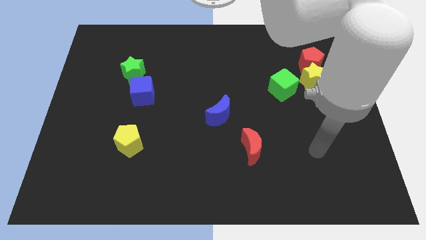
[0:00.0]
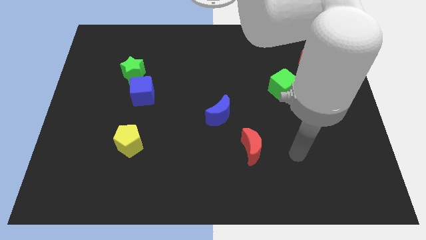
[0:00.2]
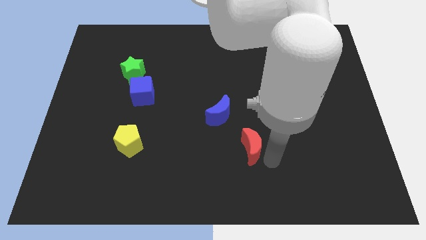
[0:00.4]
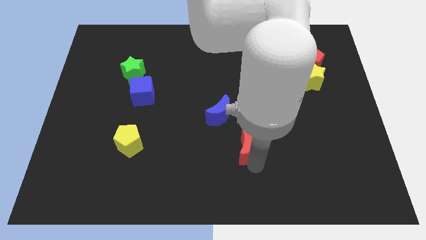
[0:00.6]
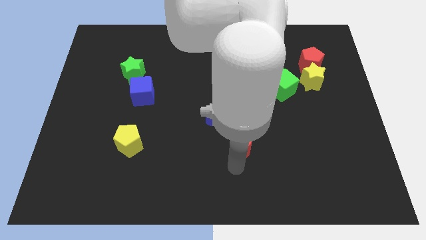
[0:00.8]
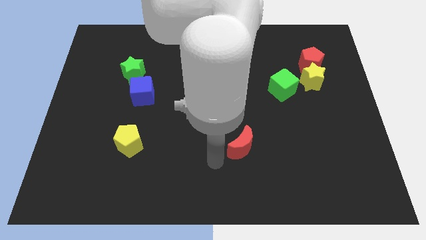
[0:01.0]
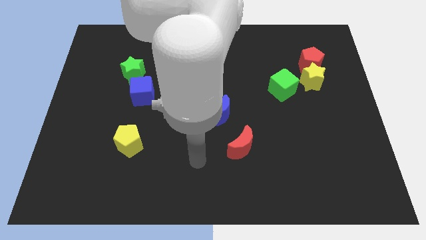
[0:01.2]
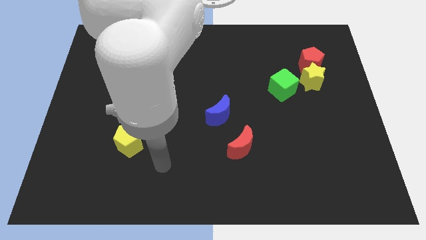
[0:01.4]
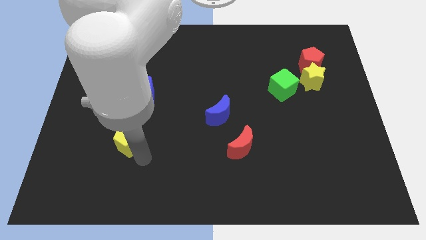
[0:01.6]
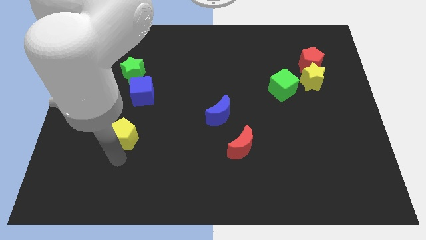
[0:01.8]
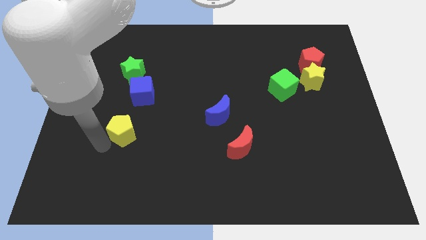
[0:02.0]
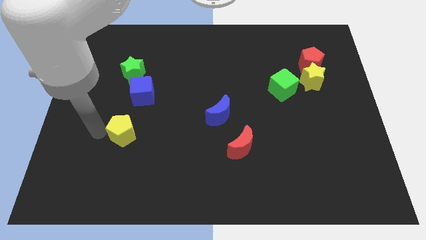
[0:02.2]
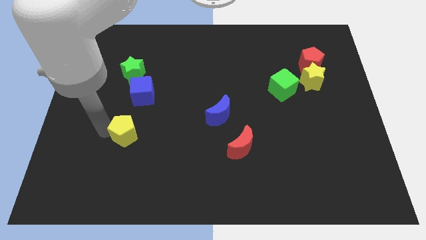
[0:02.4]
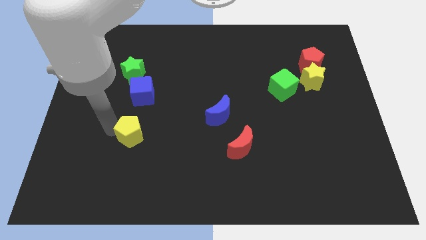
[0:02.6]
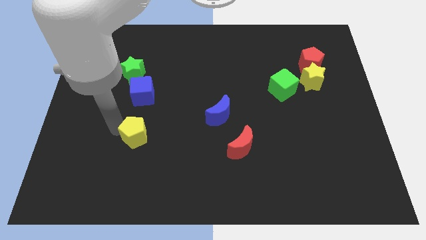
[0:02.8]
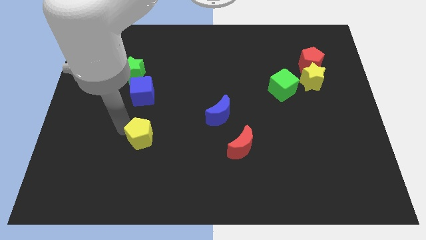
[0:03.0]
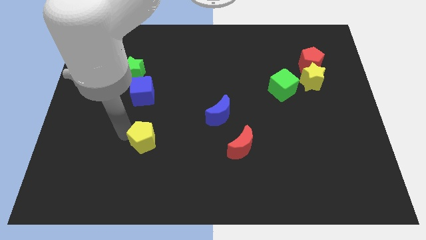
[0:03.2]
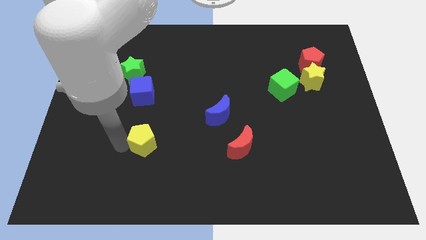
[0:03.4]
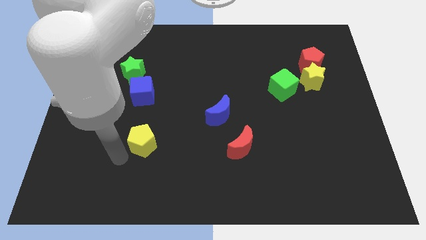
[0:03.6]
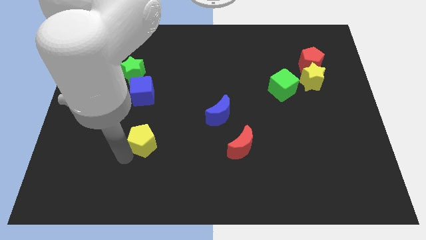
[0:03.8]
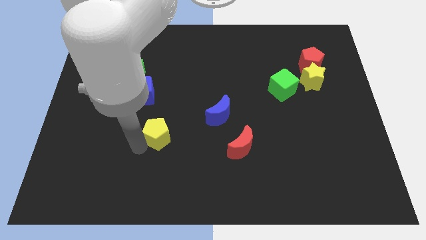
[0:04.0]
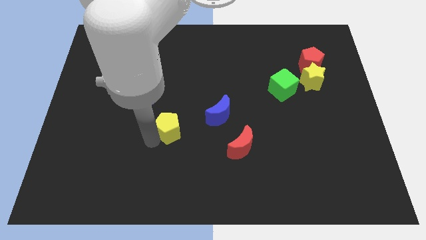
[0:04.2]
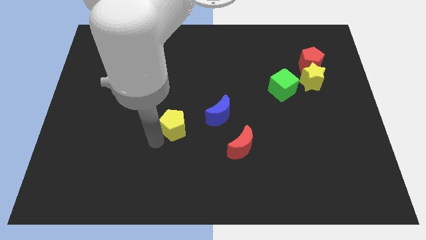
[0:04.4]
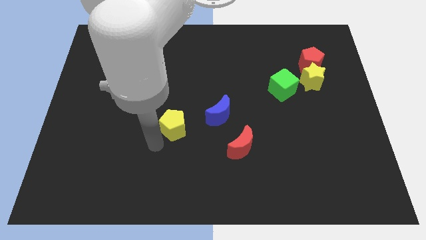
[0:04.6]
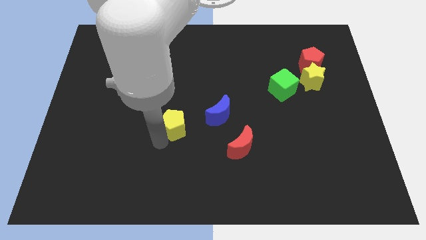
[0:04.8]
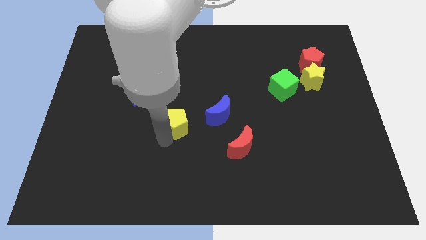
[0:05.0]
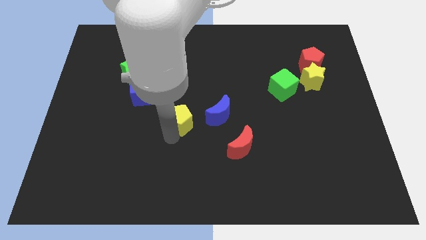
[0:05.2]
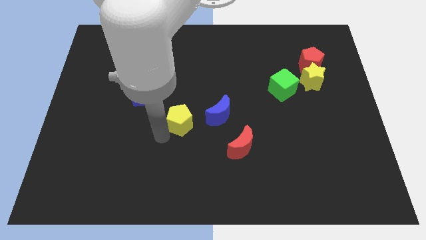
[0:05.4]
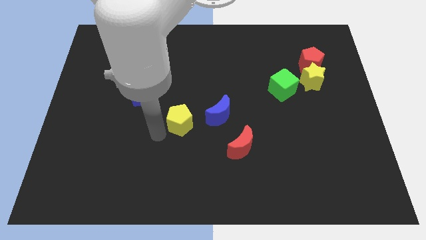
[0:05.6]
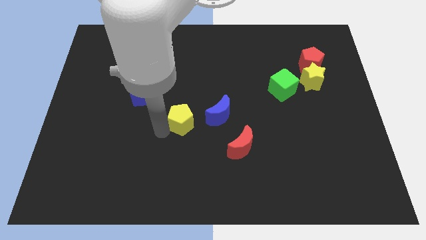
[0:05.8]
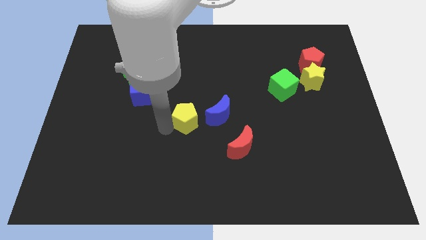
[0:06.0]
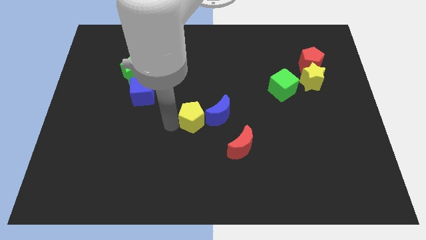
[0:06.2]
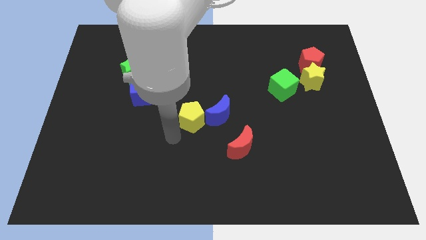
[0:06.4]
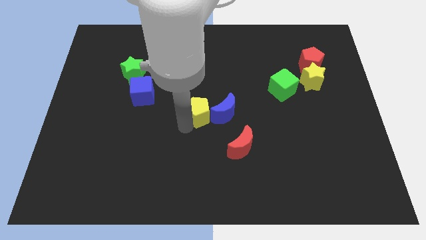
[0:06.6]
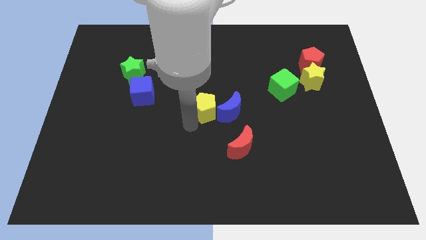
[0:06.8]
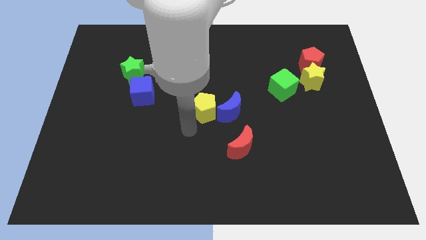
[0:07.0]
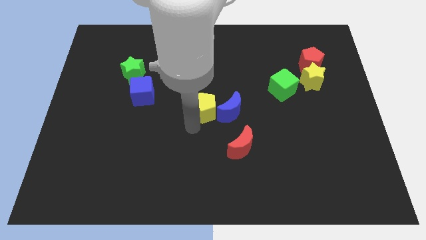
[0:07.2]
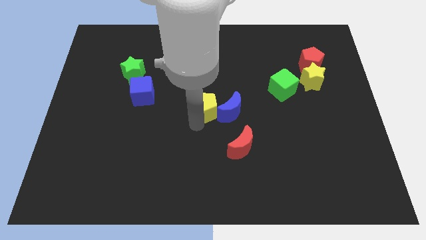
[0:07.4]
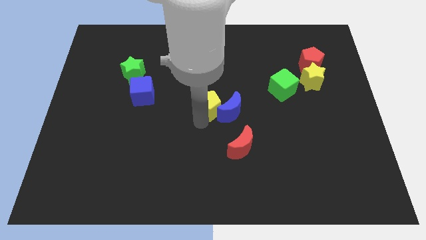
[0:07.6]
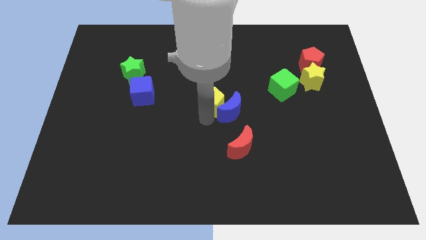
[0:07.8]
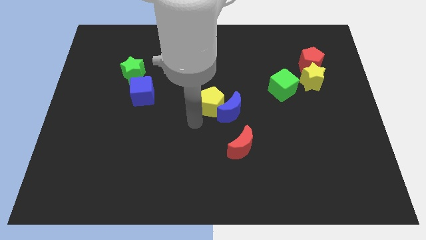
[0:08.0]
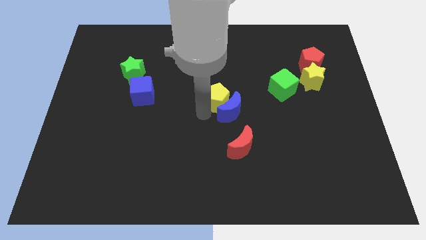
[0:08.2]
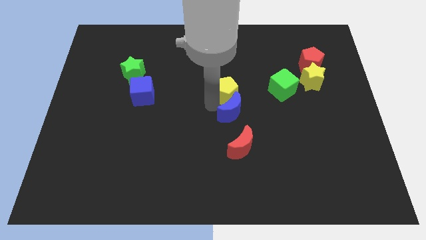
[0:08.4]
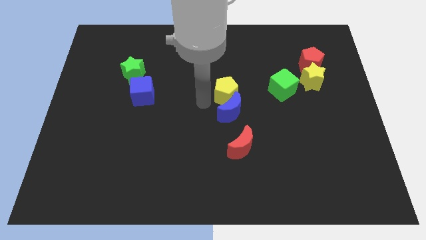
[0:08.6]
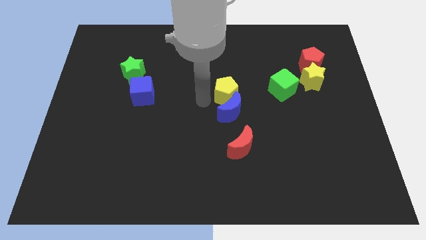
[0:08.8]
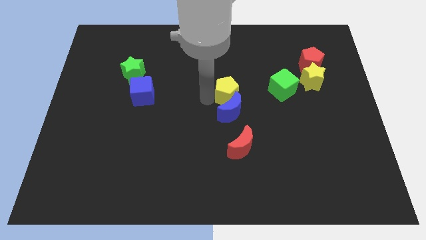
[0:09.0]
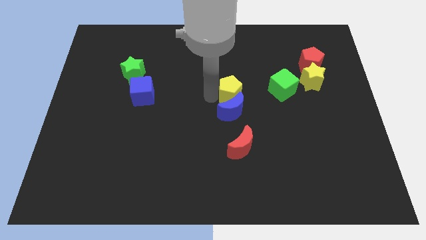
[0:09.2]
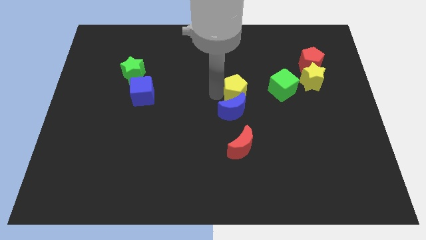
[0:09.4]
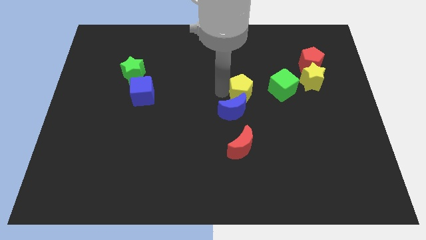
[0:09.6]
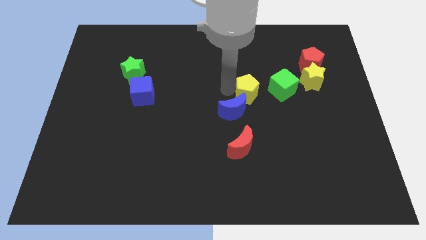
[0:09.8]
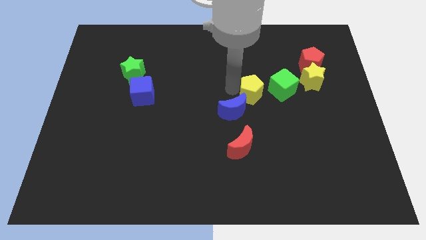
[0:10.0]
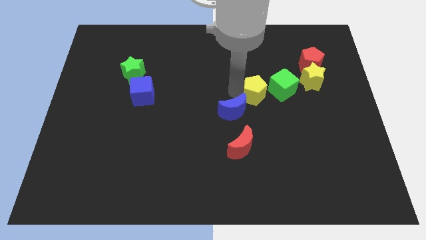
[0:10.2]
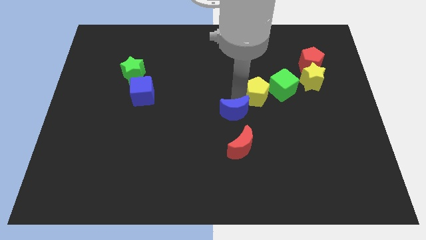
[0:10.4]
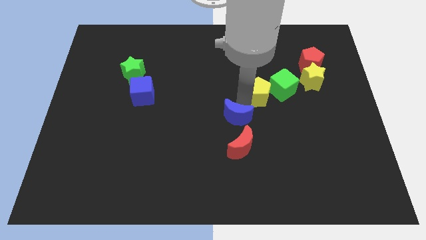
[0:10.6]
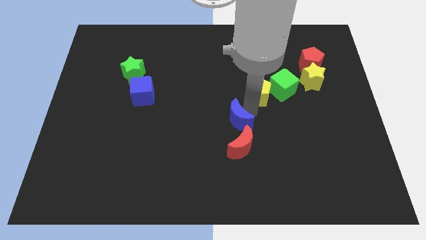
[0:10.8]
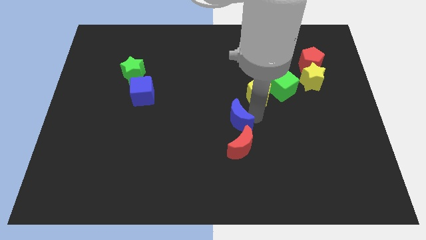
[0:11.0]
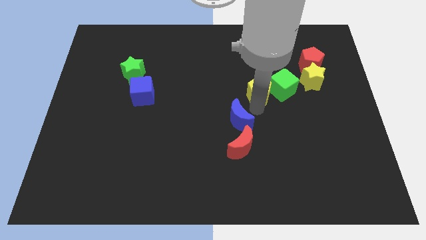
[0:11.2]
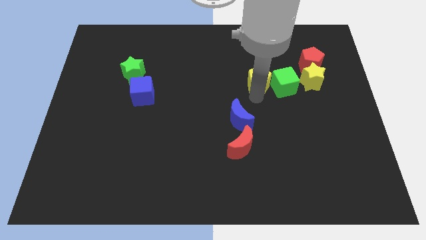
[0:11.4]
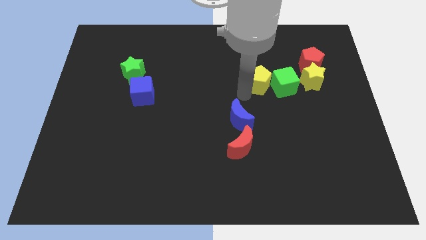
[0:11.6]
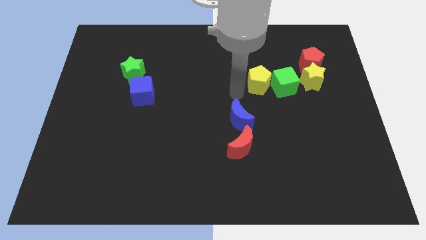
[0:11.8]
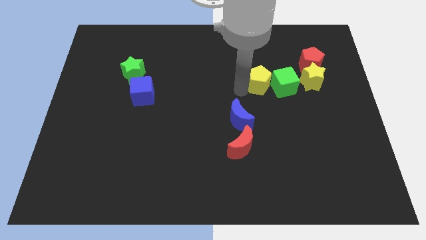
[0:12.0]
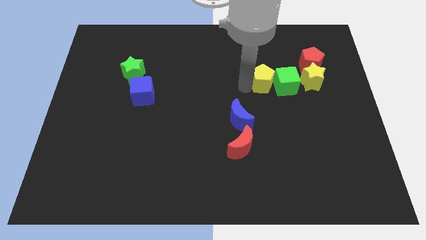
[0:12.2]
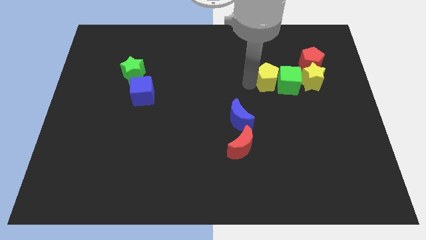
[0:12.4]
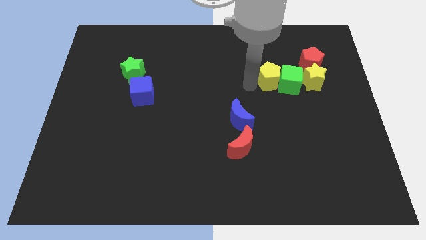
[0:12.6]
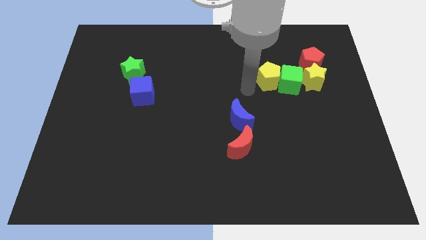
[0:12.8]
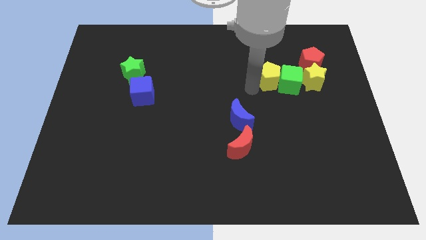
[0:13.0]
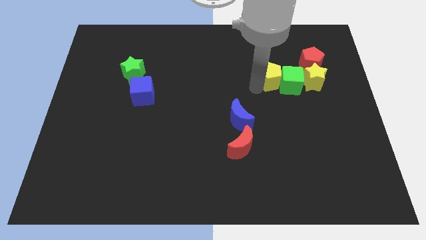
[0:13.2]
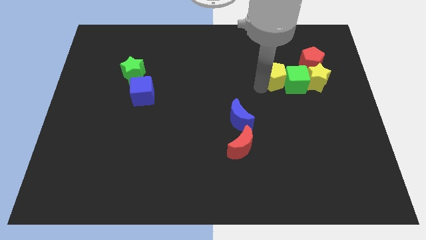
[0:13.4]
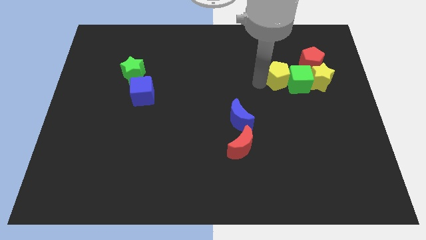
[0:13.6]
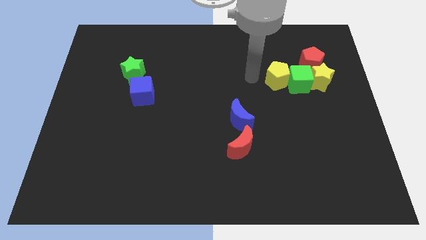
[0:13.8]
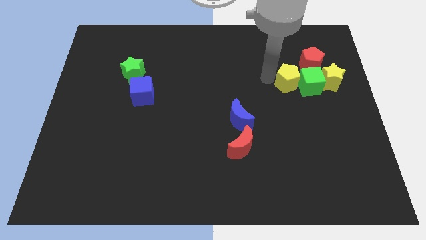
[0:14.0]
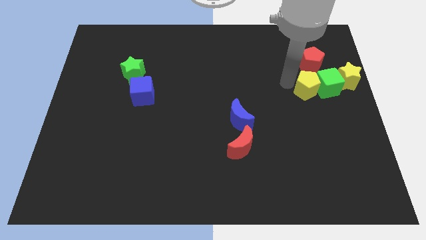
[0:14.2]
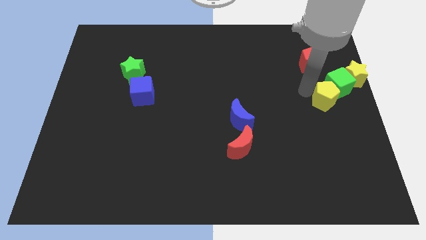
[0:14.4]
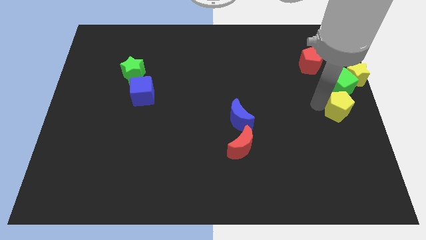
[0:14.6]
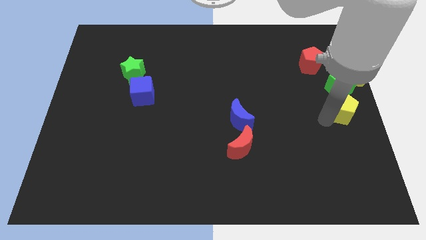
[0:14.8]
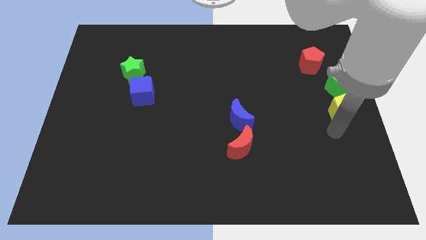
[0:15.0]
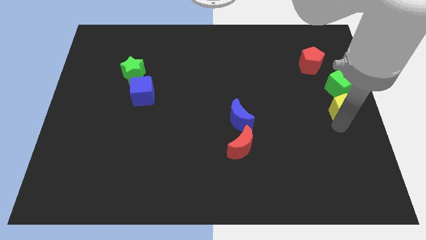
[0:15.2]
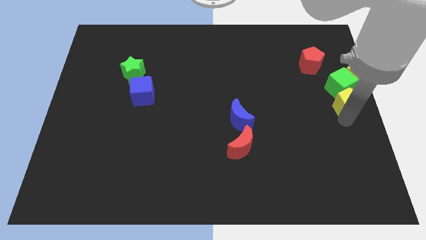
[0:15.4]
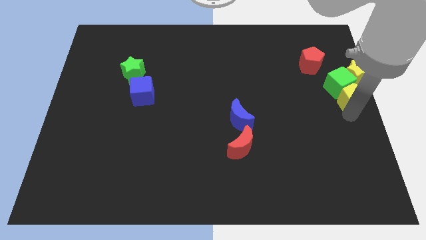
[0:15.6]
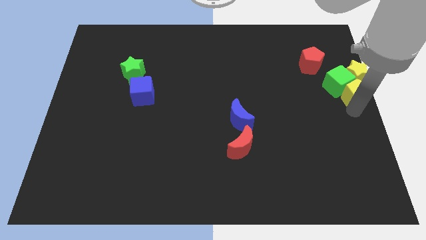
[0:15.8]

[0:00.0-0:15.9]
put the yellow pentagon close to the yellow star
